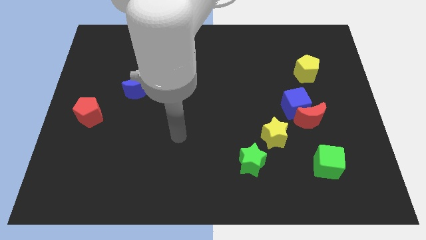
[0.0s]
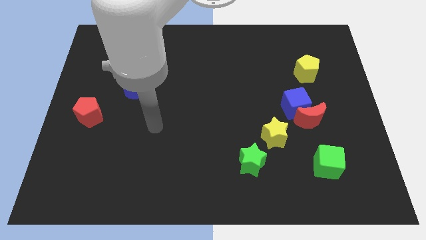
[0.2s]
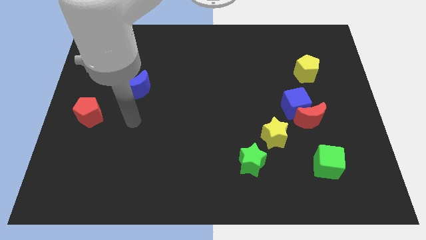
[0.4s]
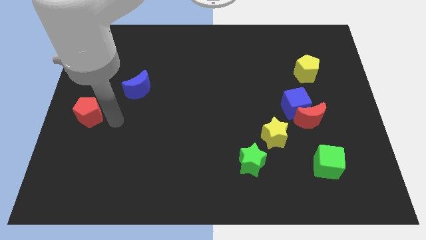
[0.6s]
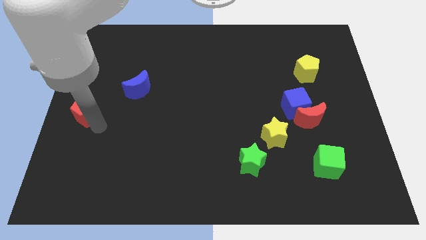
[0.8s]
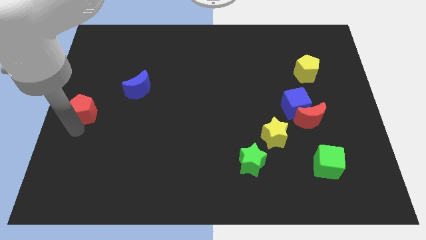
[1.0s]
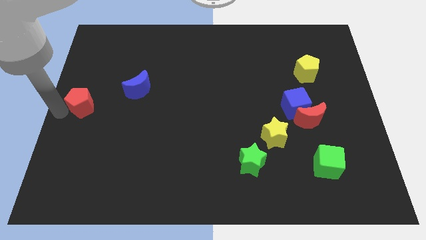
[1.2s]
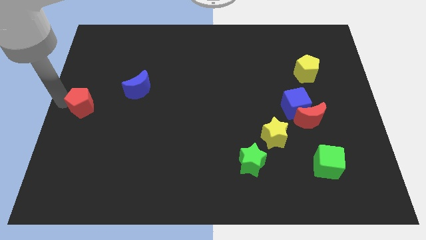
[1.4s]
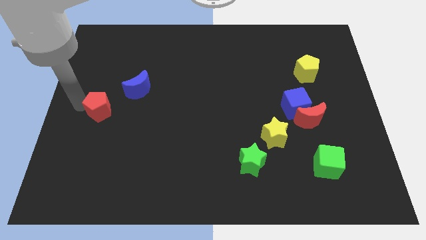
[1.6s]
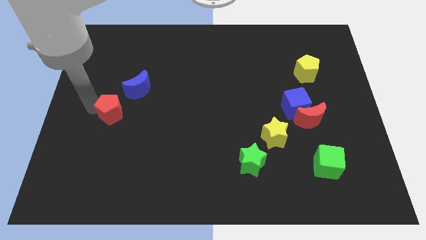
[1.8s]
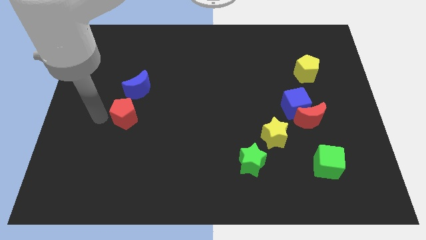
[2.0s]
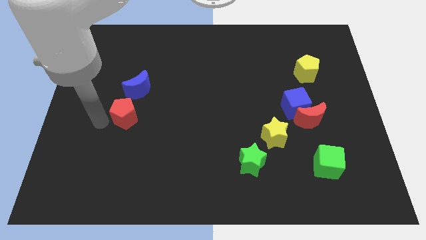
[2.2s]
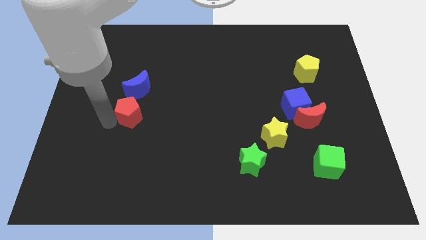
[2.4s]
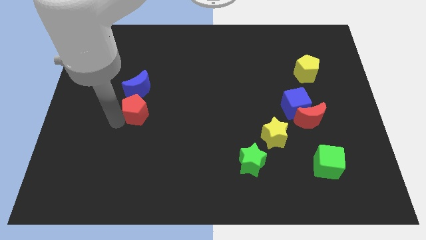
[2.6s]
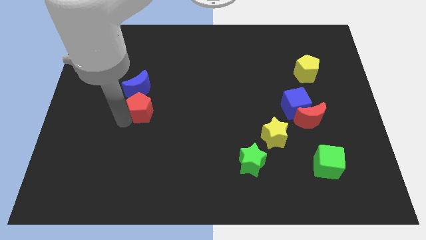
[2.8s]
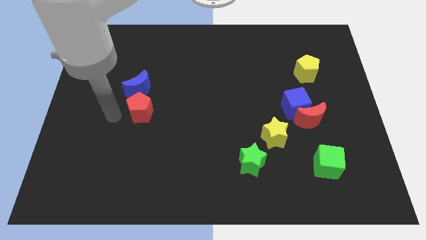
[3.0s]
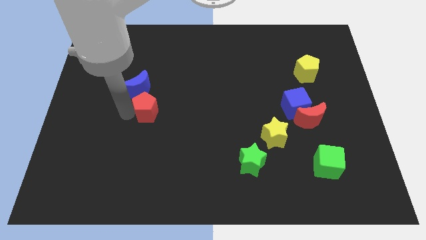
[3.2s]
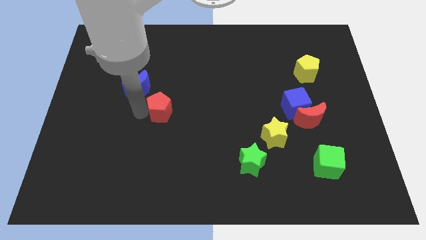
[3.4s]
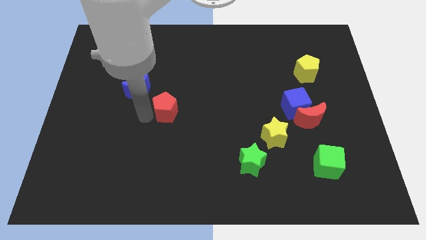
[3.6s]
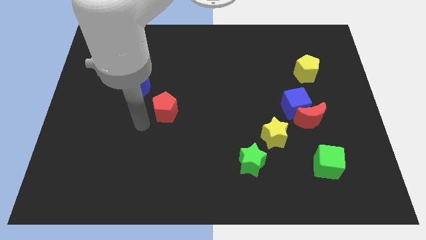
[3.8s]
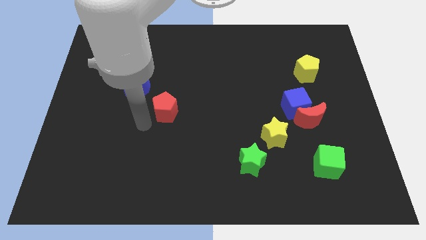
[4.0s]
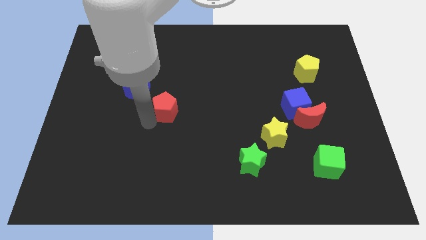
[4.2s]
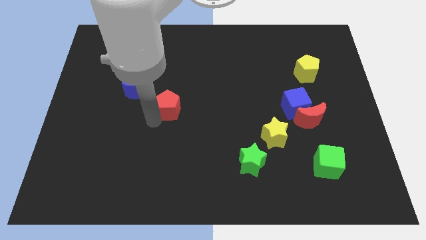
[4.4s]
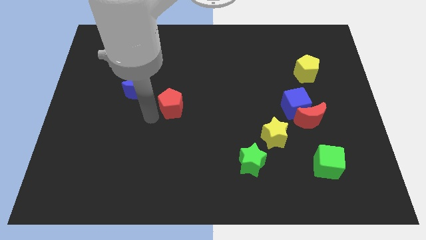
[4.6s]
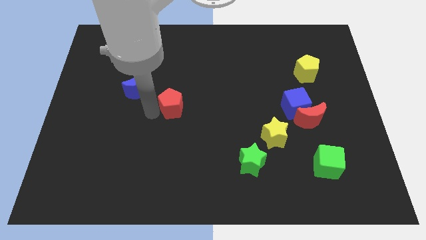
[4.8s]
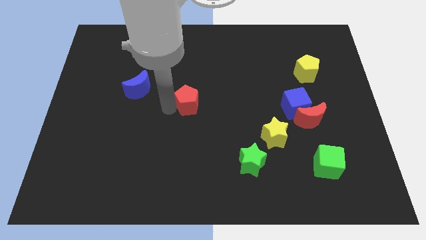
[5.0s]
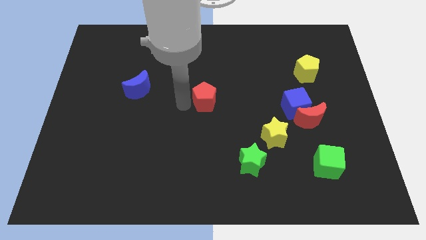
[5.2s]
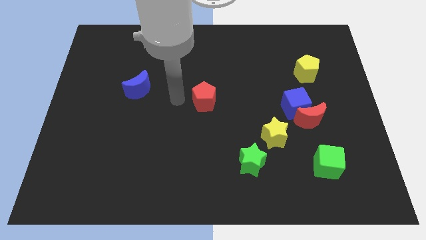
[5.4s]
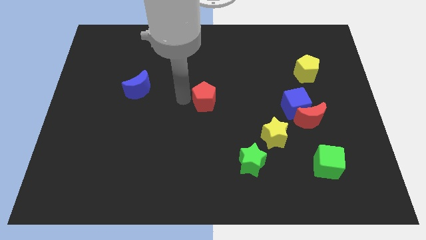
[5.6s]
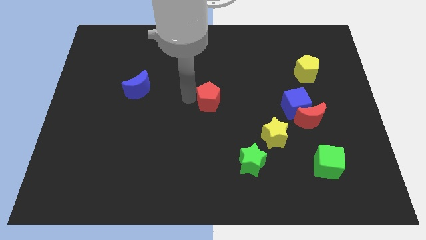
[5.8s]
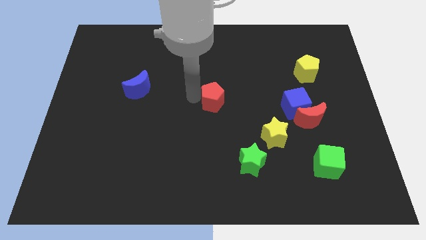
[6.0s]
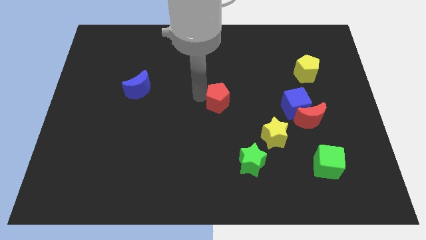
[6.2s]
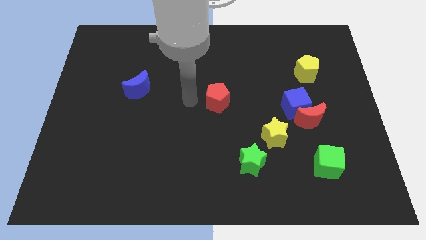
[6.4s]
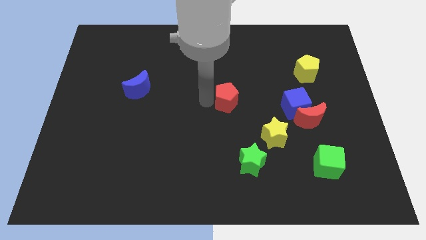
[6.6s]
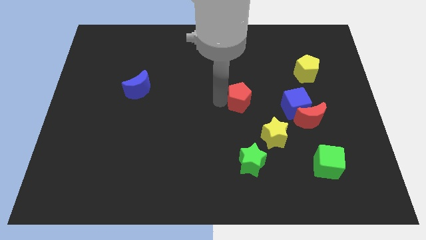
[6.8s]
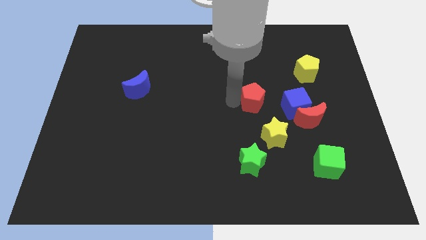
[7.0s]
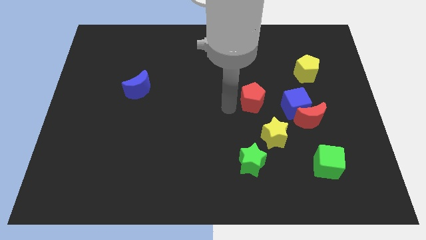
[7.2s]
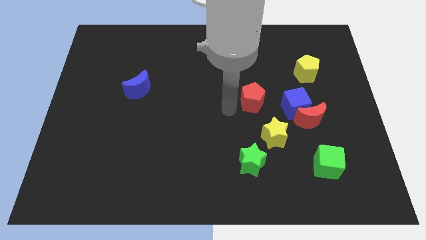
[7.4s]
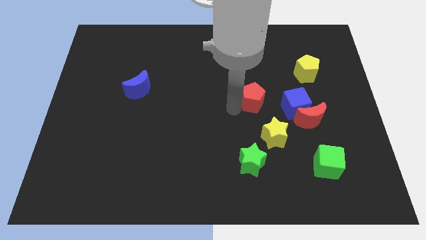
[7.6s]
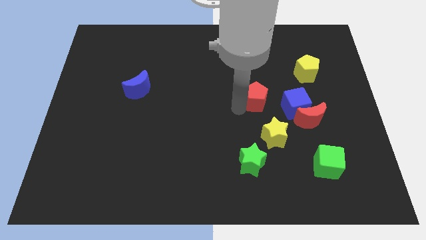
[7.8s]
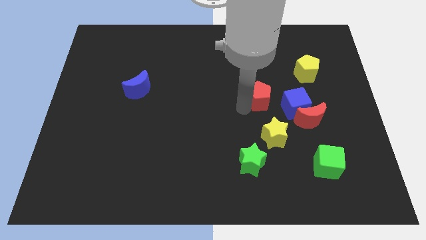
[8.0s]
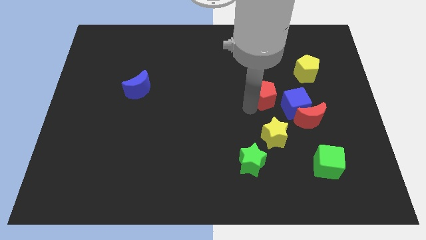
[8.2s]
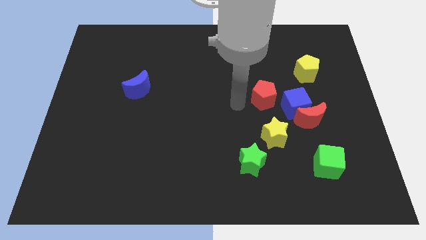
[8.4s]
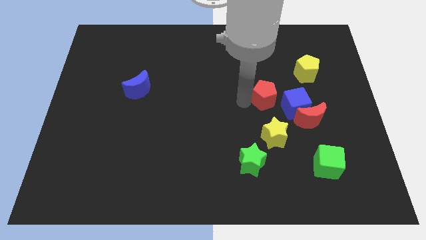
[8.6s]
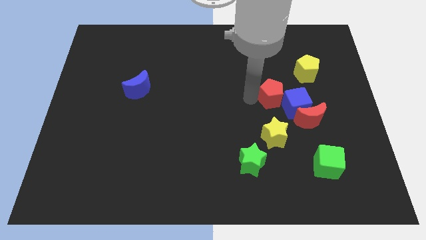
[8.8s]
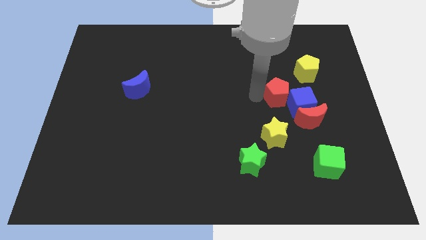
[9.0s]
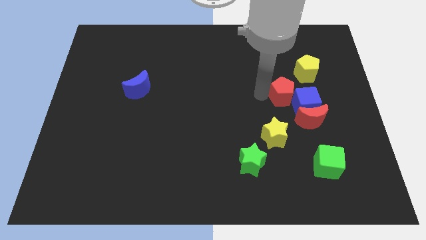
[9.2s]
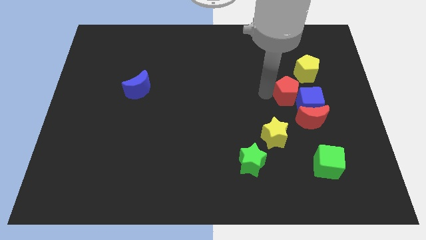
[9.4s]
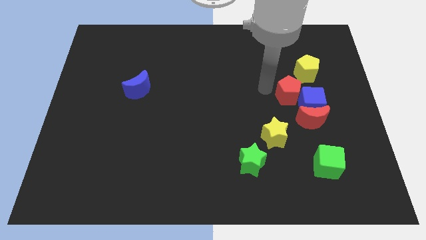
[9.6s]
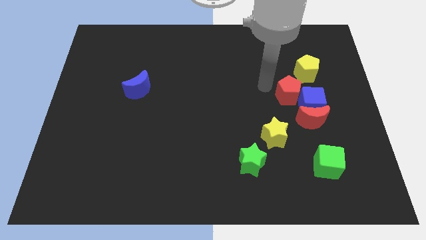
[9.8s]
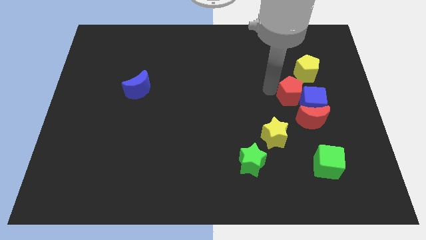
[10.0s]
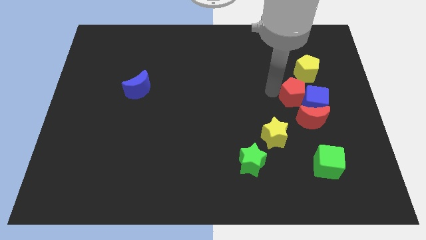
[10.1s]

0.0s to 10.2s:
move the red pentagon below the yellow pentagon

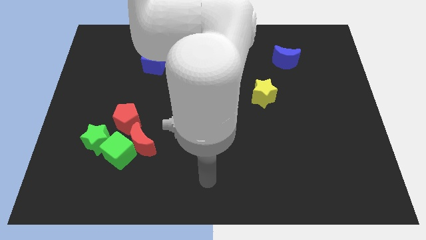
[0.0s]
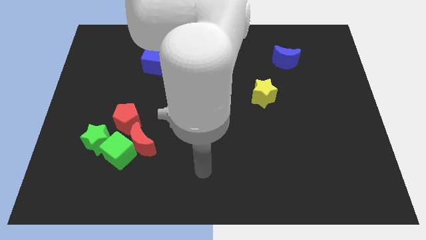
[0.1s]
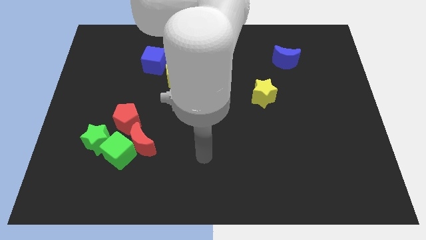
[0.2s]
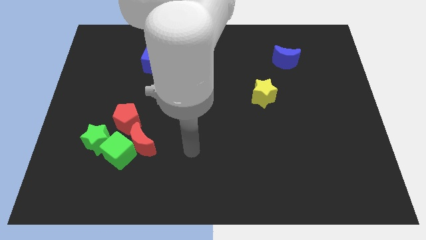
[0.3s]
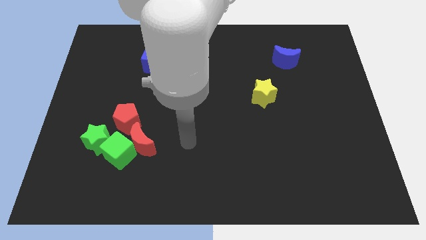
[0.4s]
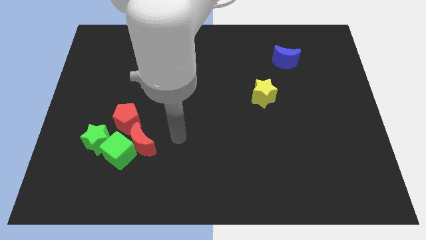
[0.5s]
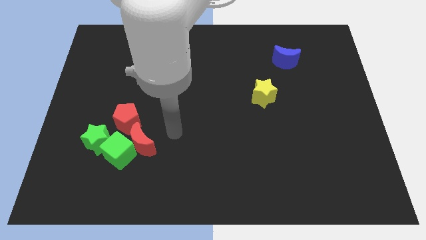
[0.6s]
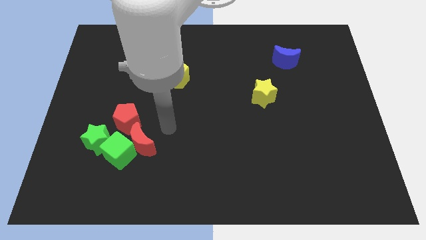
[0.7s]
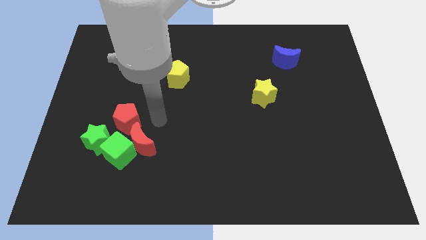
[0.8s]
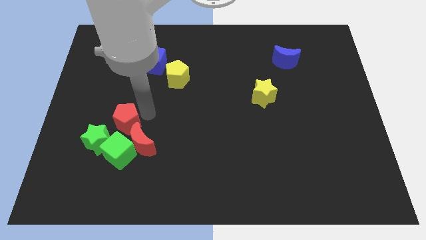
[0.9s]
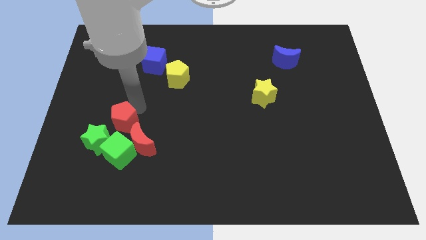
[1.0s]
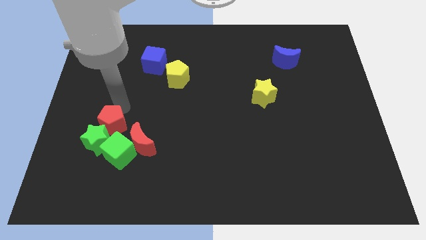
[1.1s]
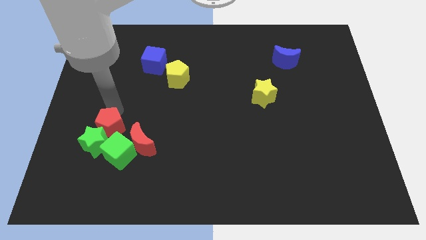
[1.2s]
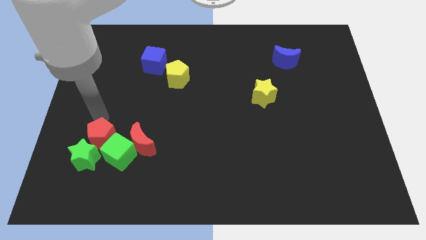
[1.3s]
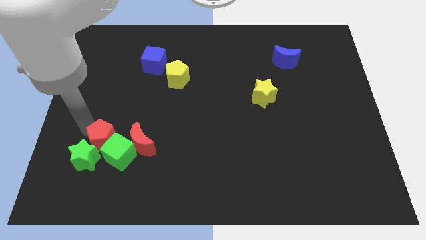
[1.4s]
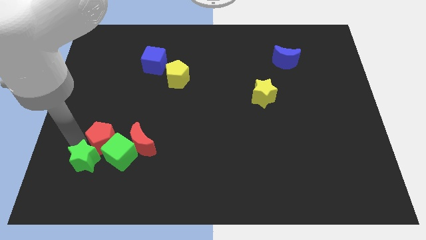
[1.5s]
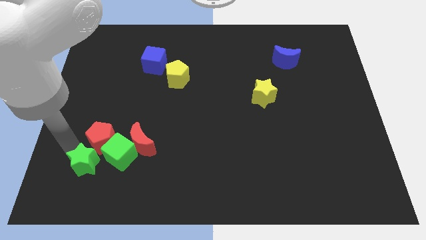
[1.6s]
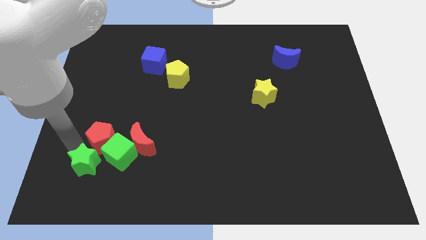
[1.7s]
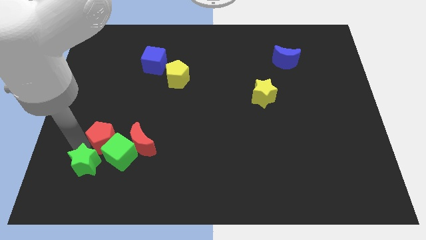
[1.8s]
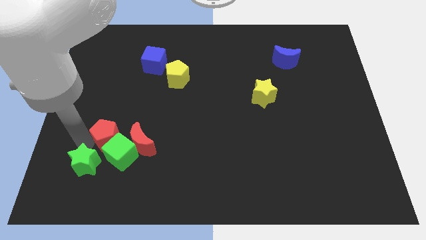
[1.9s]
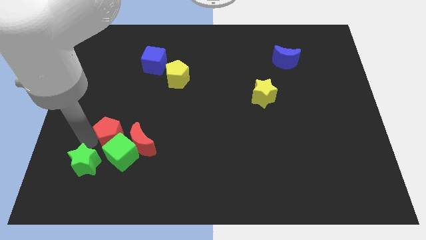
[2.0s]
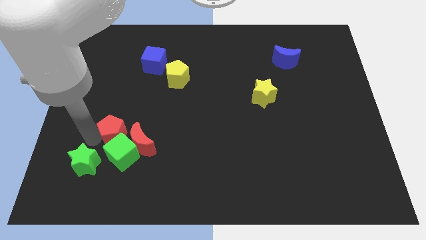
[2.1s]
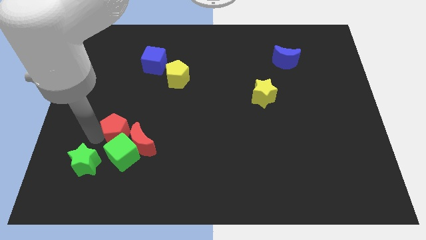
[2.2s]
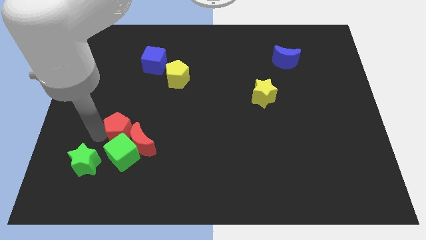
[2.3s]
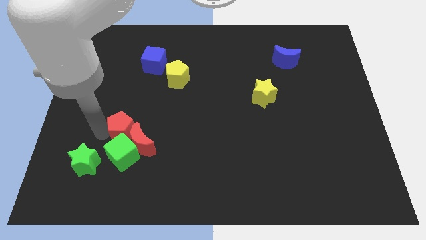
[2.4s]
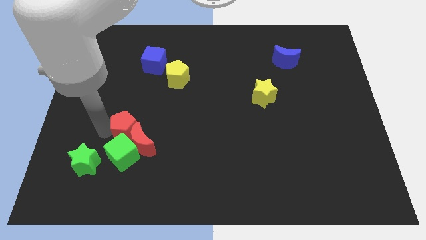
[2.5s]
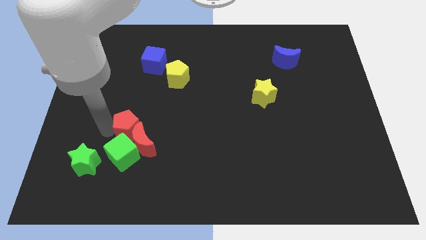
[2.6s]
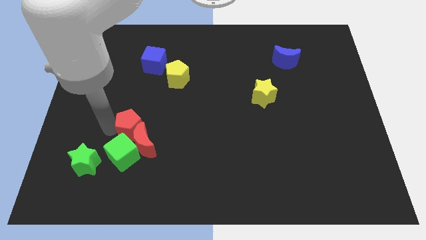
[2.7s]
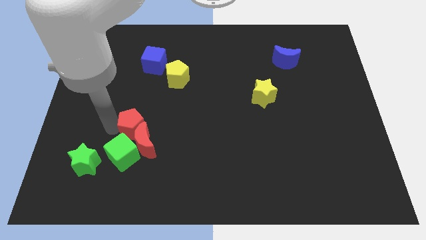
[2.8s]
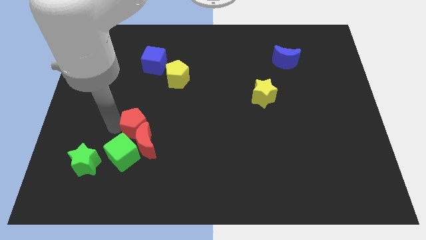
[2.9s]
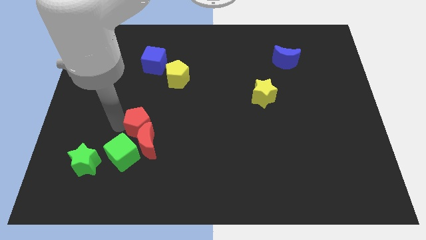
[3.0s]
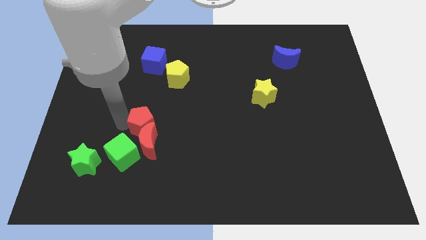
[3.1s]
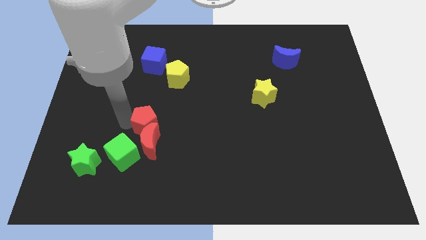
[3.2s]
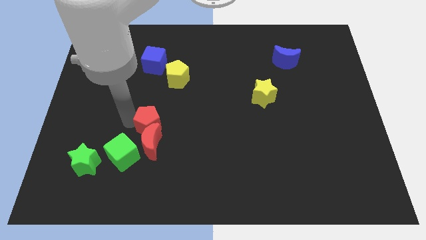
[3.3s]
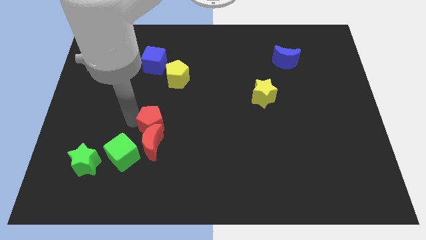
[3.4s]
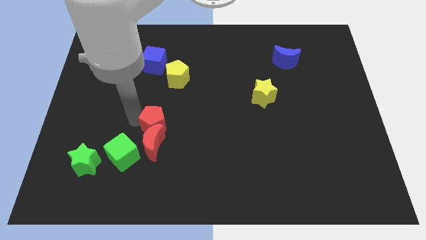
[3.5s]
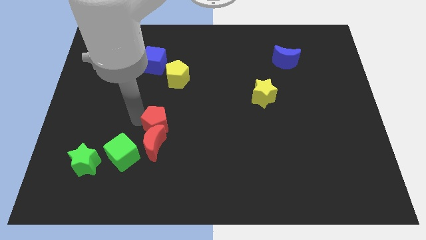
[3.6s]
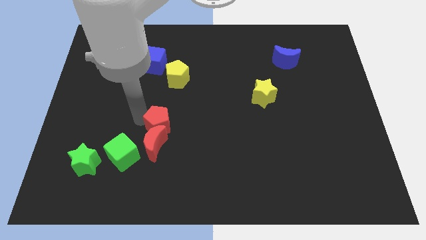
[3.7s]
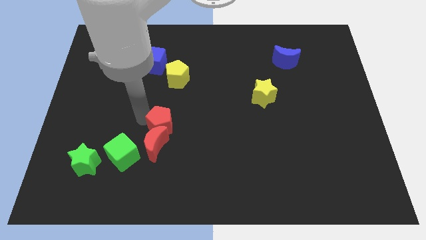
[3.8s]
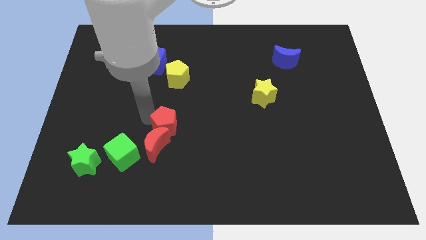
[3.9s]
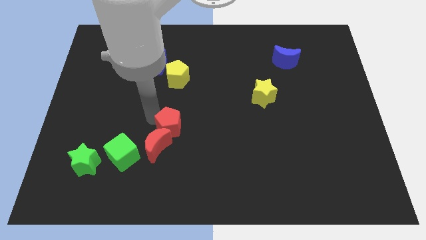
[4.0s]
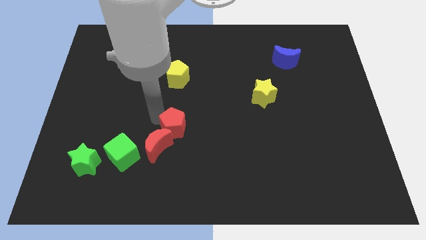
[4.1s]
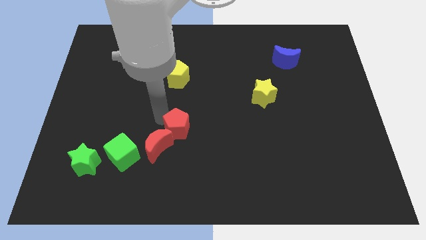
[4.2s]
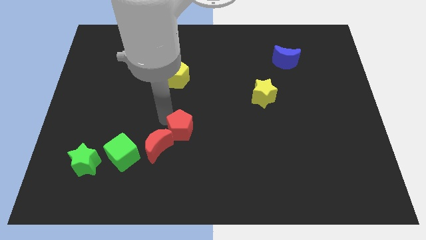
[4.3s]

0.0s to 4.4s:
move the red pentagon to the right of the red moon
